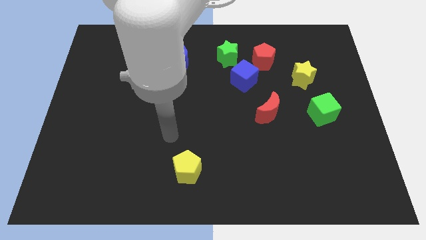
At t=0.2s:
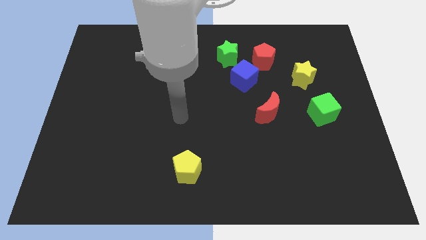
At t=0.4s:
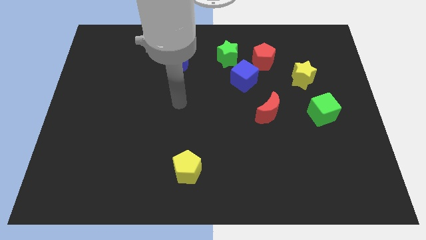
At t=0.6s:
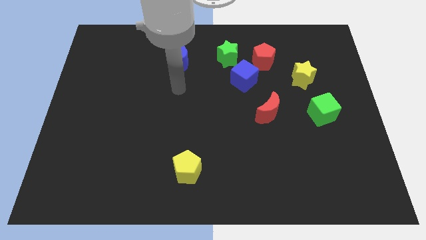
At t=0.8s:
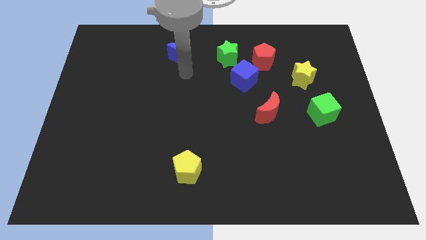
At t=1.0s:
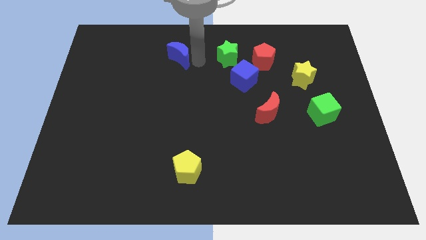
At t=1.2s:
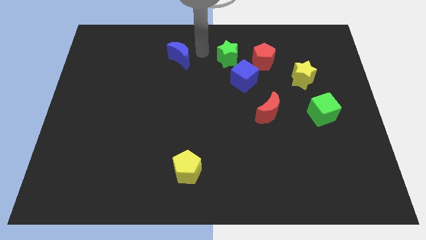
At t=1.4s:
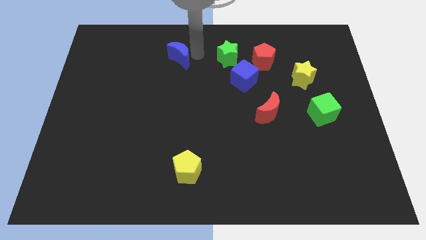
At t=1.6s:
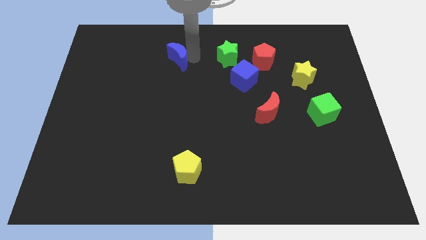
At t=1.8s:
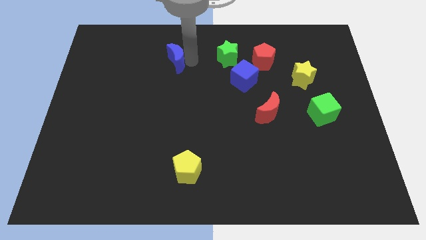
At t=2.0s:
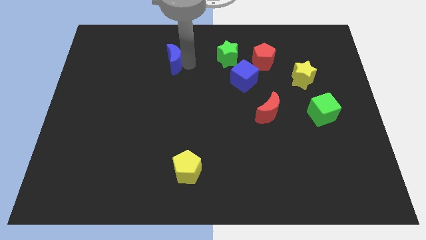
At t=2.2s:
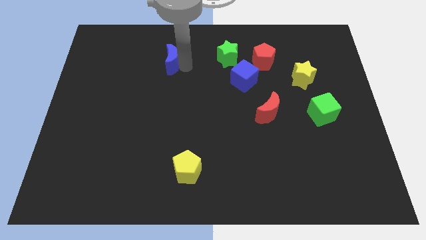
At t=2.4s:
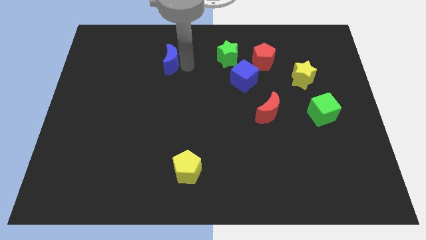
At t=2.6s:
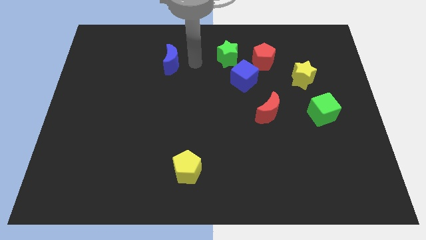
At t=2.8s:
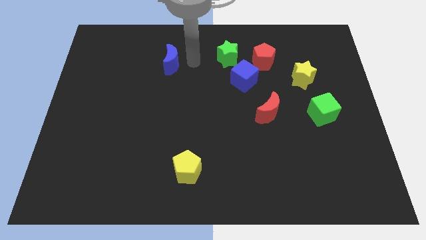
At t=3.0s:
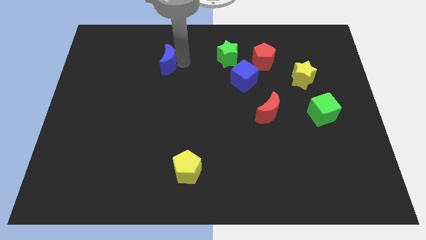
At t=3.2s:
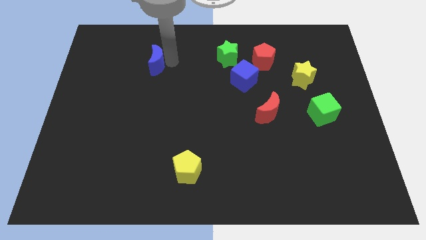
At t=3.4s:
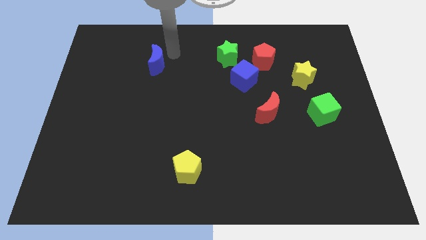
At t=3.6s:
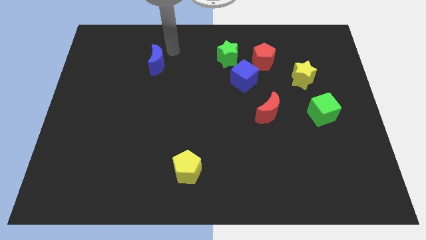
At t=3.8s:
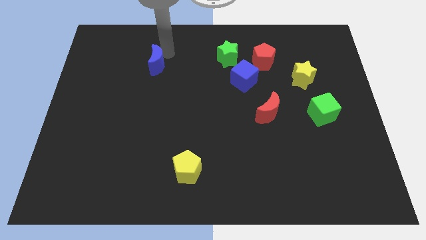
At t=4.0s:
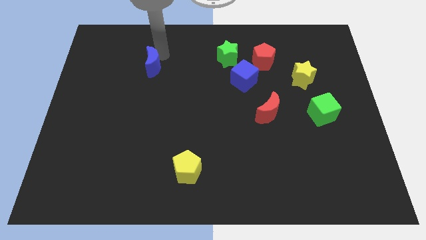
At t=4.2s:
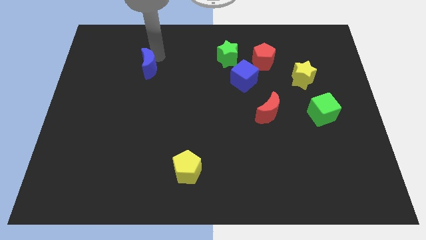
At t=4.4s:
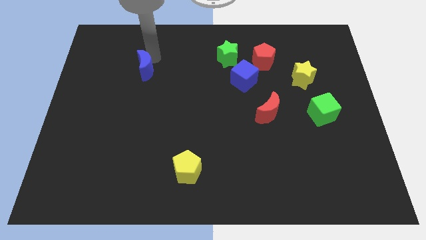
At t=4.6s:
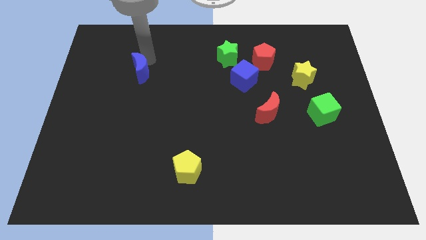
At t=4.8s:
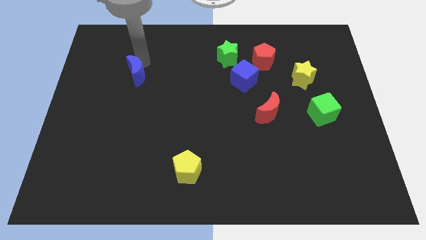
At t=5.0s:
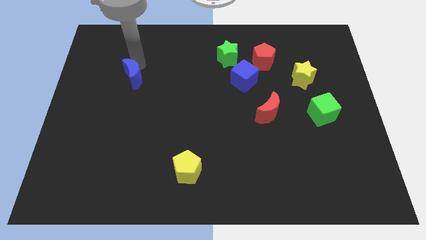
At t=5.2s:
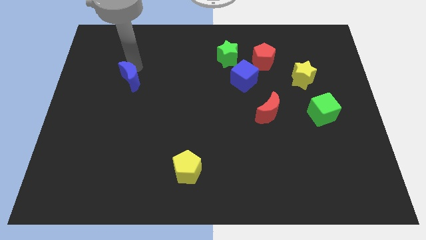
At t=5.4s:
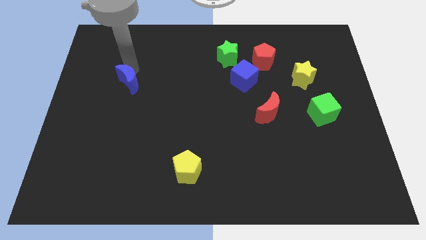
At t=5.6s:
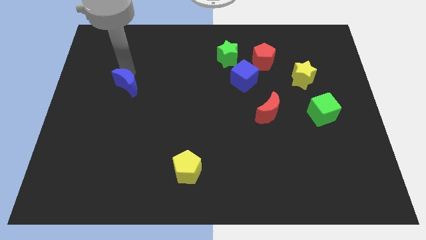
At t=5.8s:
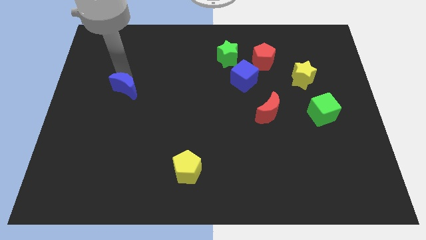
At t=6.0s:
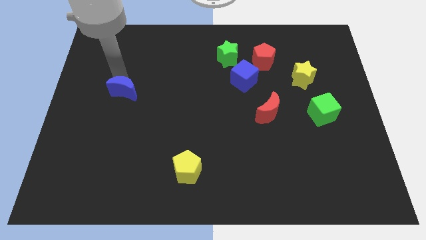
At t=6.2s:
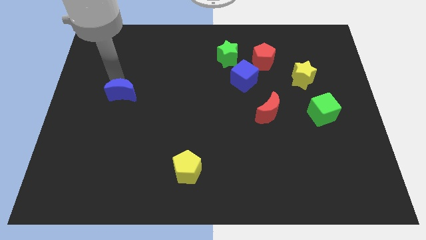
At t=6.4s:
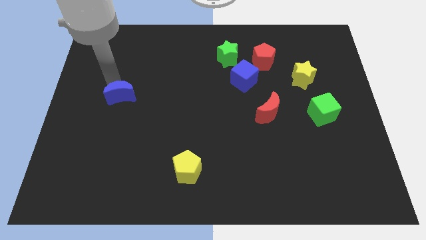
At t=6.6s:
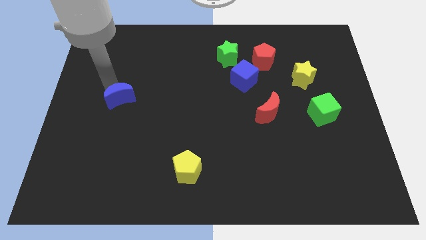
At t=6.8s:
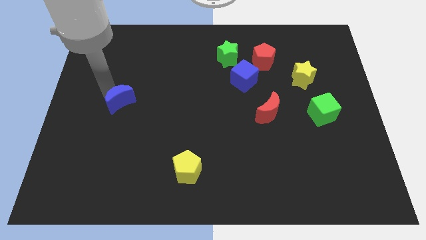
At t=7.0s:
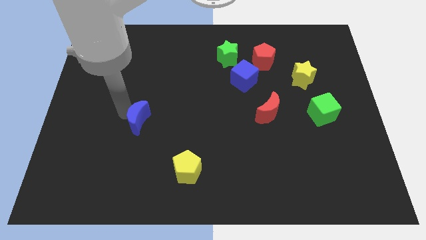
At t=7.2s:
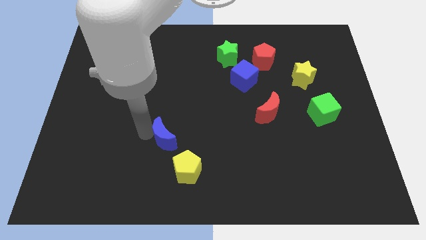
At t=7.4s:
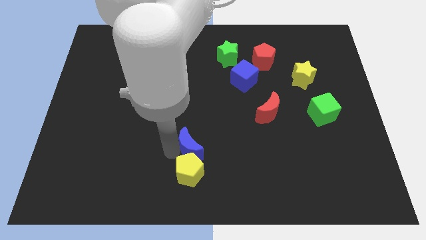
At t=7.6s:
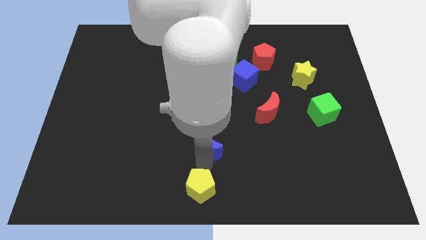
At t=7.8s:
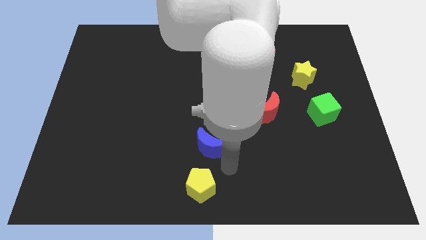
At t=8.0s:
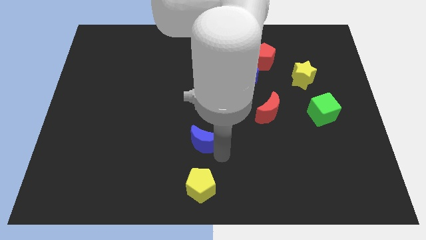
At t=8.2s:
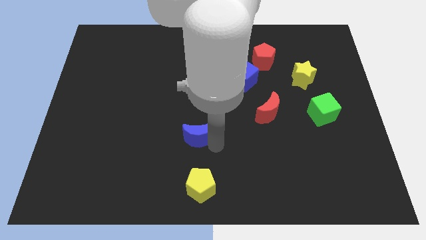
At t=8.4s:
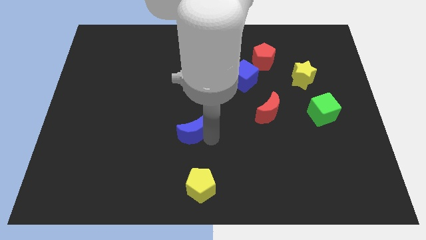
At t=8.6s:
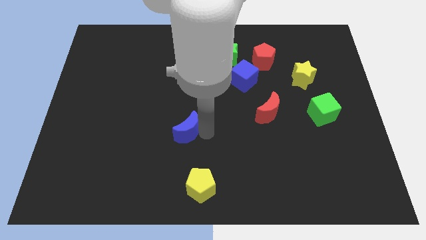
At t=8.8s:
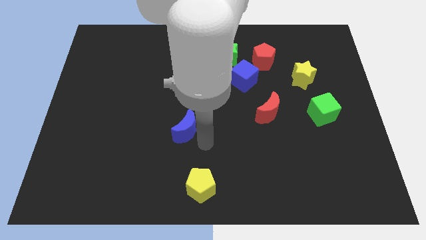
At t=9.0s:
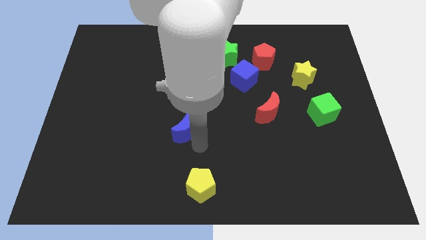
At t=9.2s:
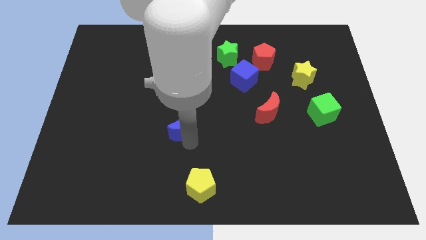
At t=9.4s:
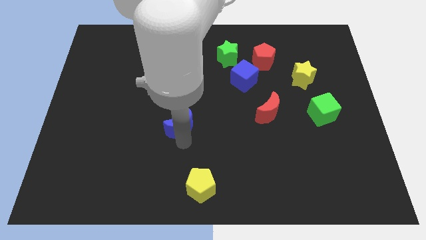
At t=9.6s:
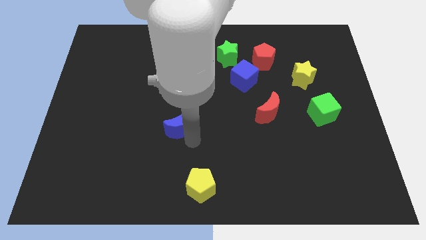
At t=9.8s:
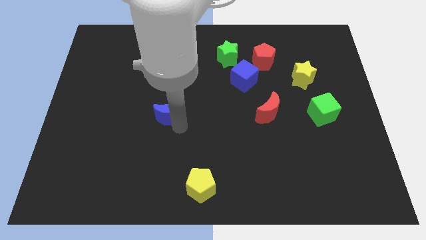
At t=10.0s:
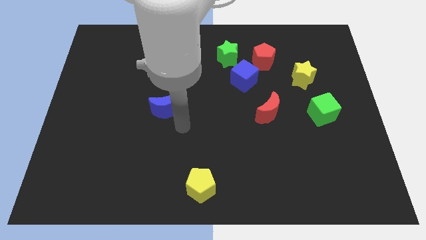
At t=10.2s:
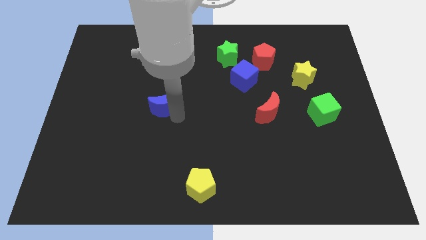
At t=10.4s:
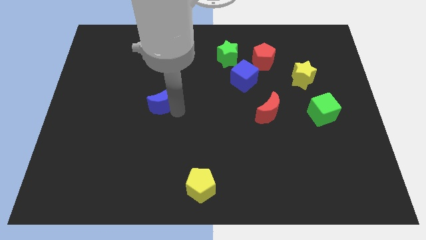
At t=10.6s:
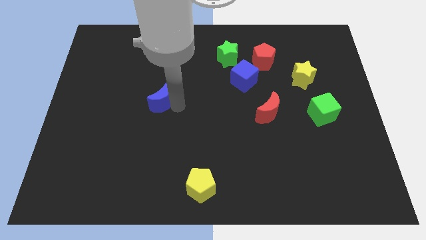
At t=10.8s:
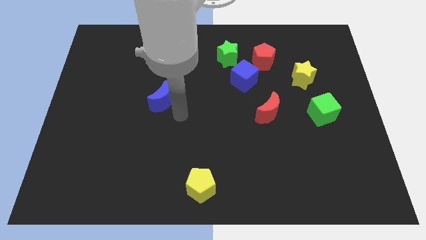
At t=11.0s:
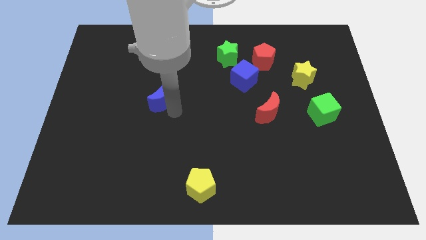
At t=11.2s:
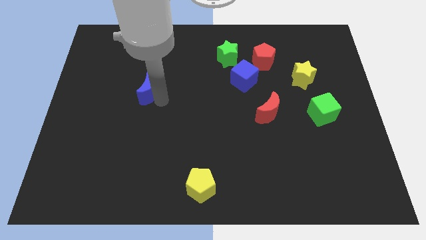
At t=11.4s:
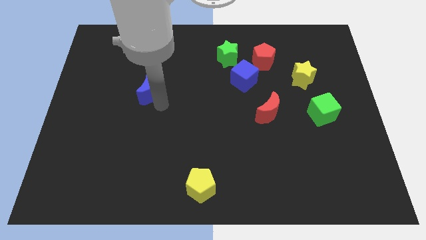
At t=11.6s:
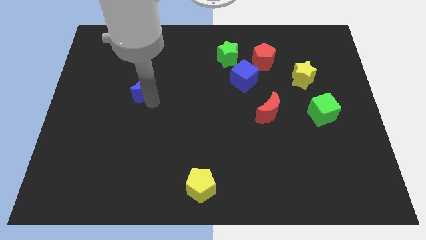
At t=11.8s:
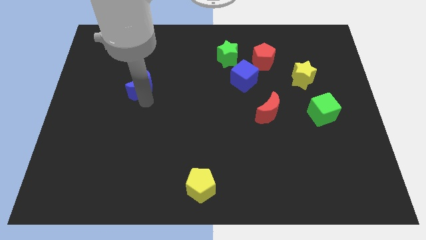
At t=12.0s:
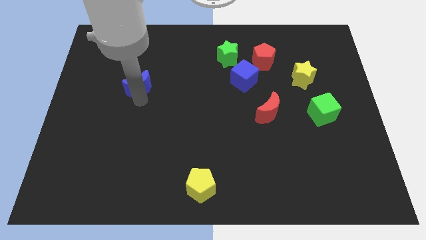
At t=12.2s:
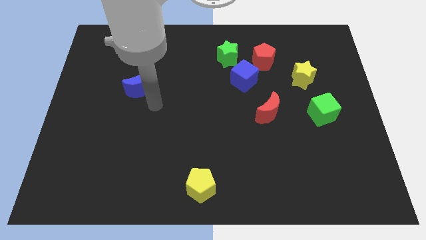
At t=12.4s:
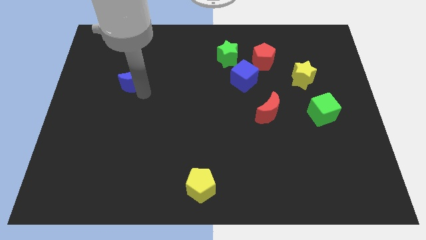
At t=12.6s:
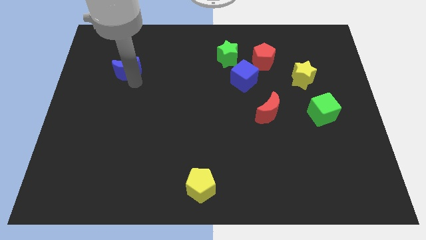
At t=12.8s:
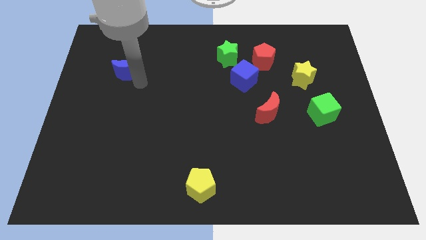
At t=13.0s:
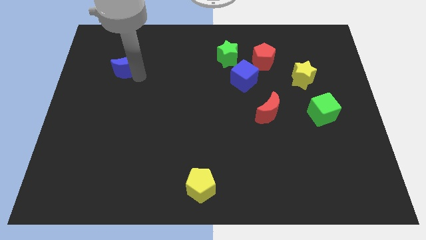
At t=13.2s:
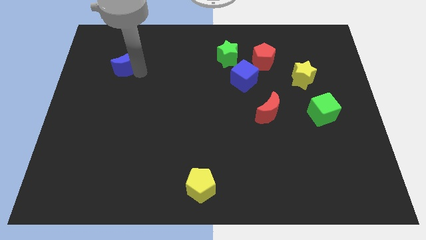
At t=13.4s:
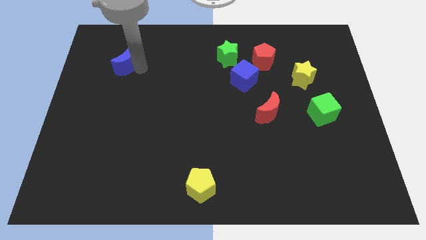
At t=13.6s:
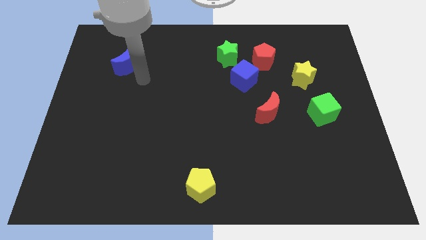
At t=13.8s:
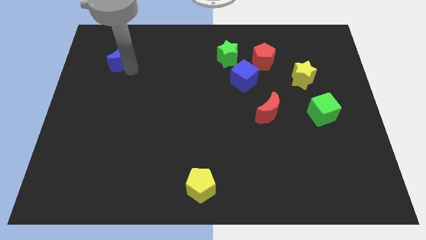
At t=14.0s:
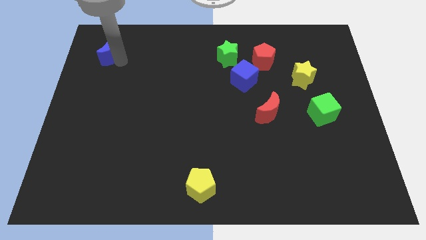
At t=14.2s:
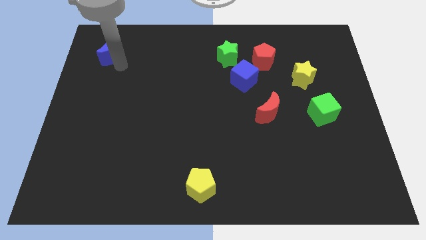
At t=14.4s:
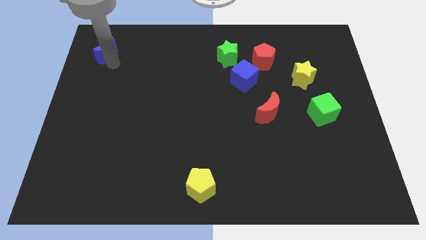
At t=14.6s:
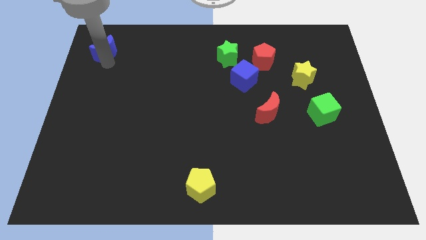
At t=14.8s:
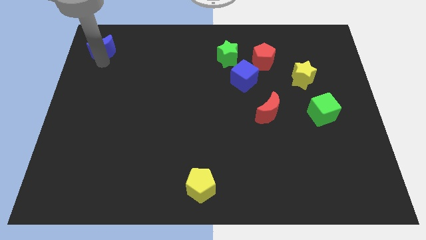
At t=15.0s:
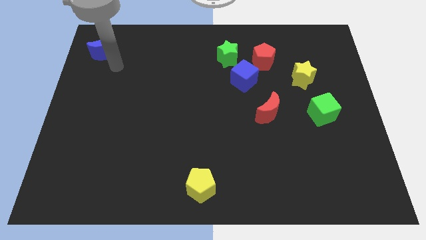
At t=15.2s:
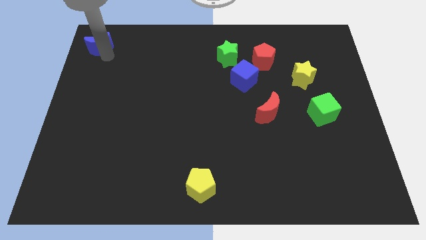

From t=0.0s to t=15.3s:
move the blue moon to the top left of the board
